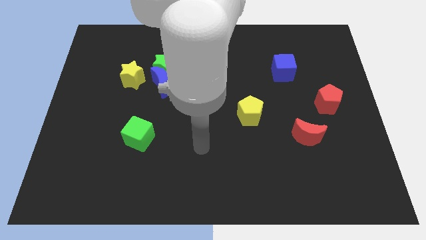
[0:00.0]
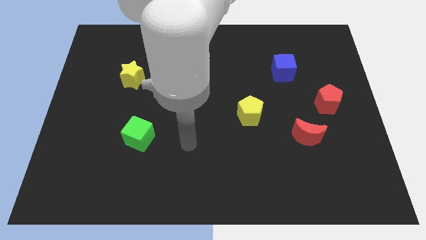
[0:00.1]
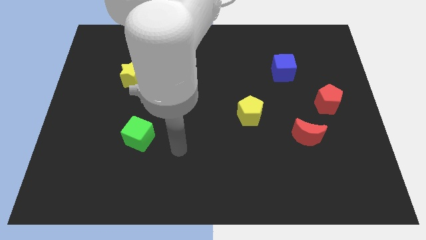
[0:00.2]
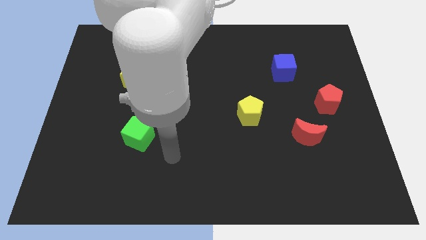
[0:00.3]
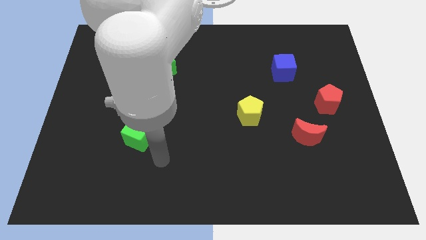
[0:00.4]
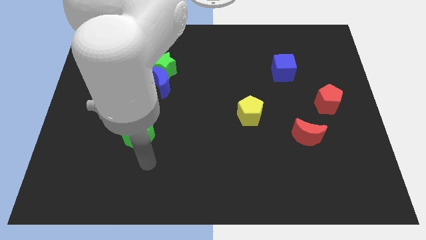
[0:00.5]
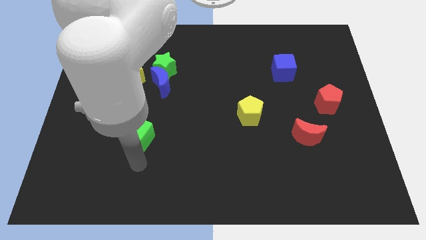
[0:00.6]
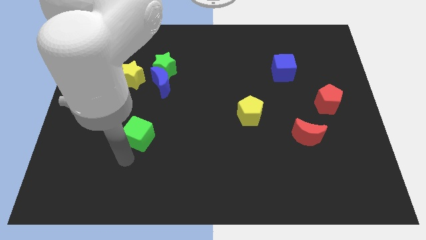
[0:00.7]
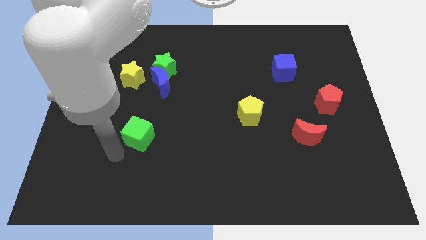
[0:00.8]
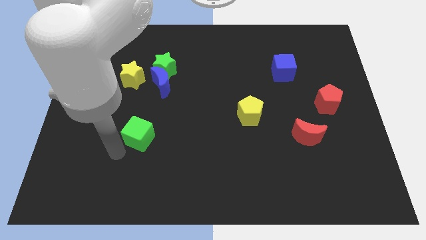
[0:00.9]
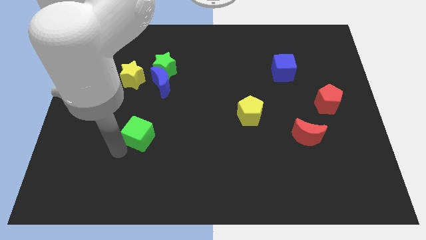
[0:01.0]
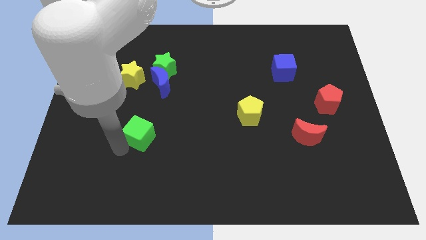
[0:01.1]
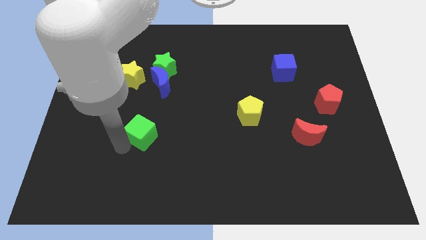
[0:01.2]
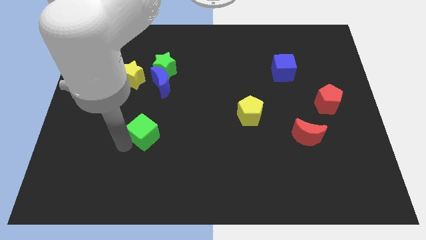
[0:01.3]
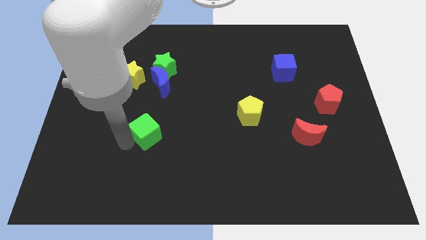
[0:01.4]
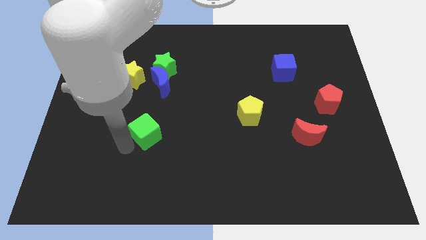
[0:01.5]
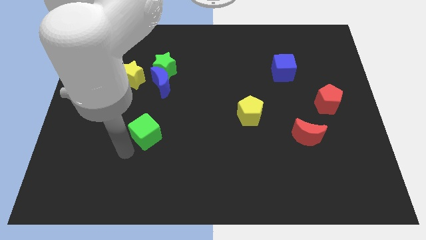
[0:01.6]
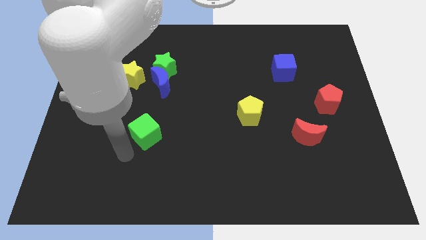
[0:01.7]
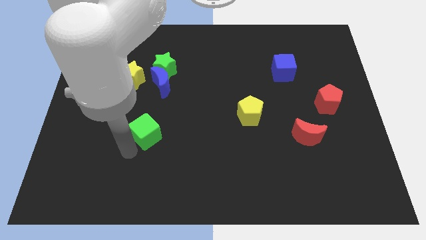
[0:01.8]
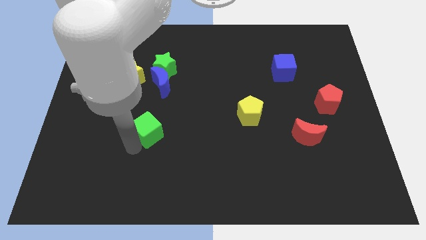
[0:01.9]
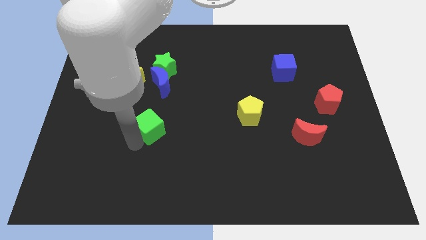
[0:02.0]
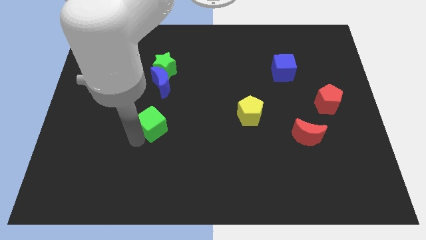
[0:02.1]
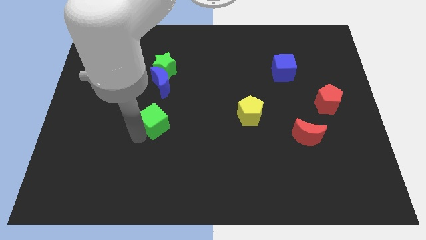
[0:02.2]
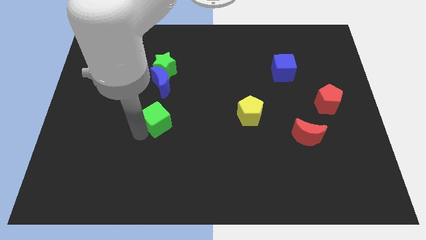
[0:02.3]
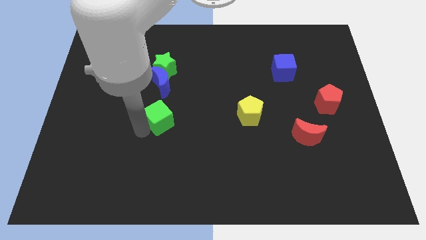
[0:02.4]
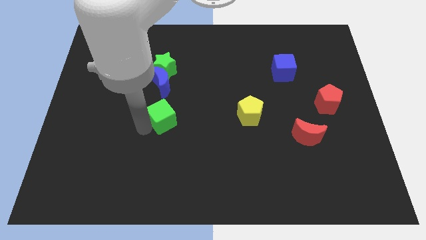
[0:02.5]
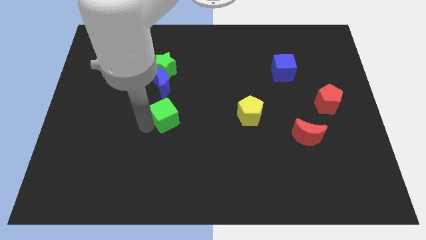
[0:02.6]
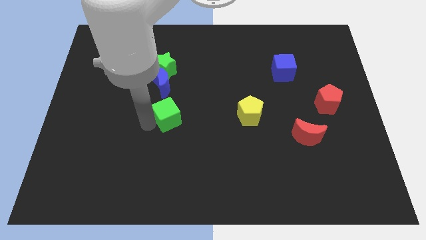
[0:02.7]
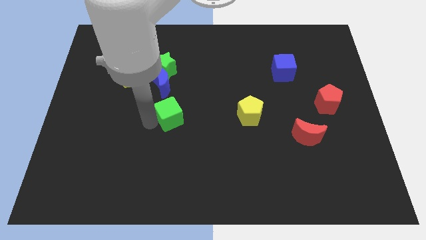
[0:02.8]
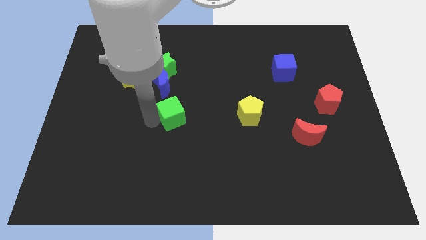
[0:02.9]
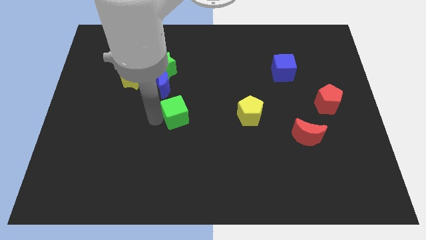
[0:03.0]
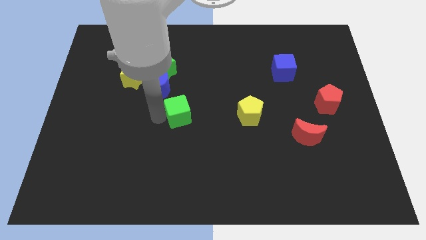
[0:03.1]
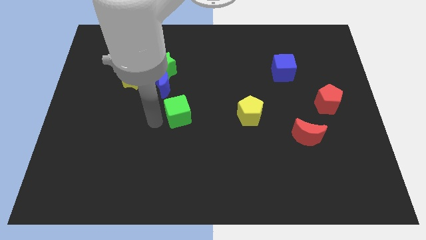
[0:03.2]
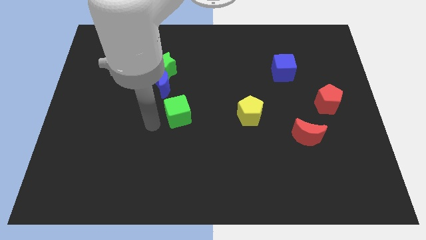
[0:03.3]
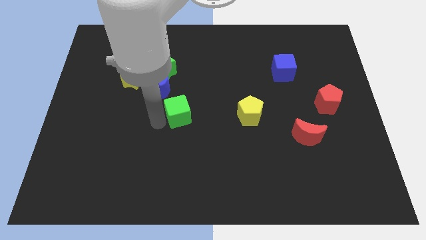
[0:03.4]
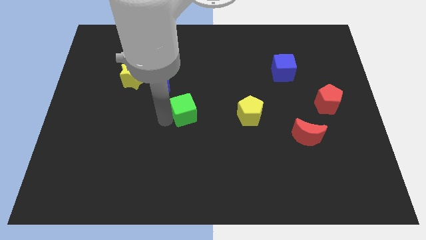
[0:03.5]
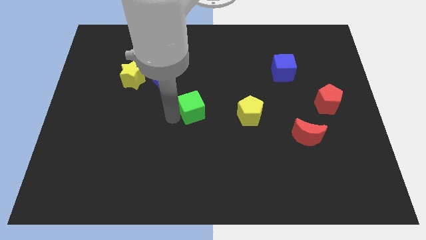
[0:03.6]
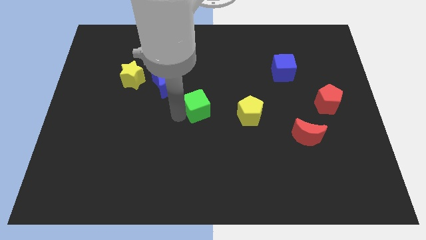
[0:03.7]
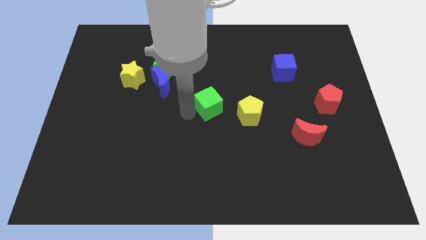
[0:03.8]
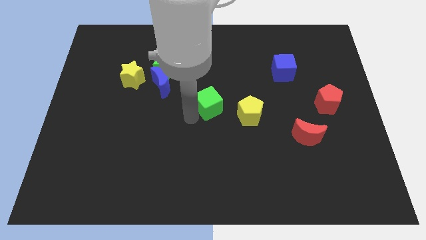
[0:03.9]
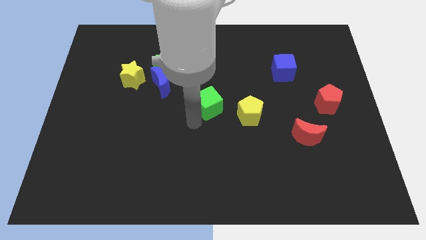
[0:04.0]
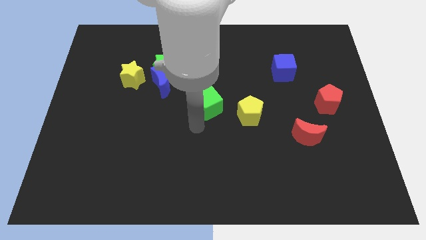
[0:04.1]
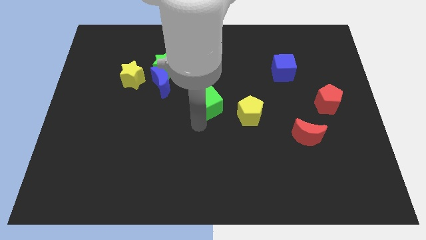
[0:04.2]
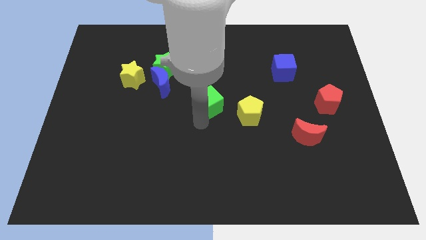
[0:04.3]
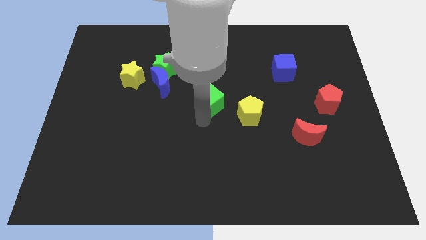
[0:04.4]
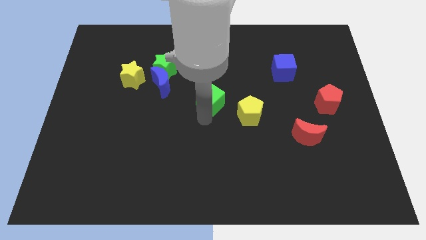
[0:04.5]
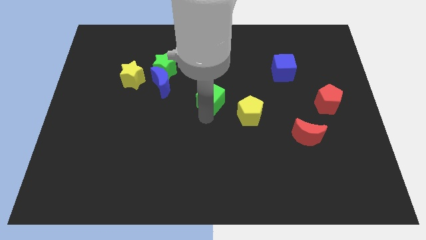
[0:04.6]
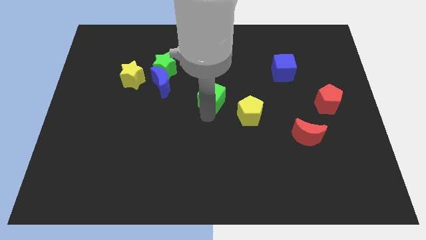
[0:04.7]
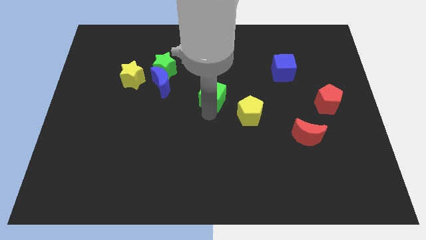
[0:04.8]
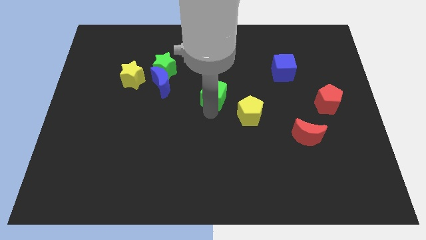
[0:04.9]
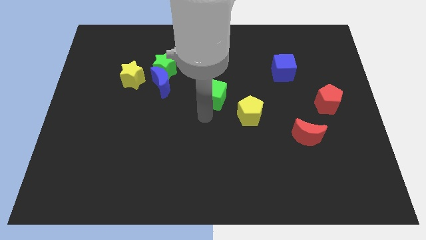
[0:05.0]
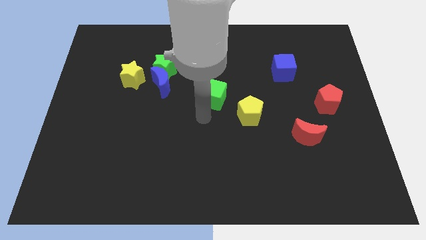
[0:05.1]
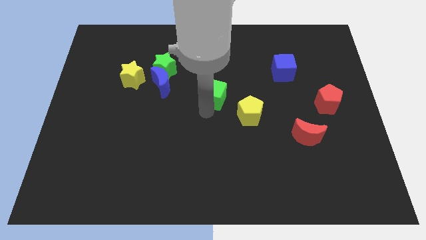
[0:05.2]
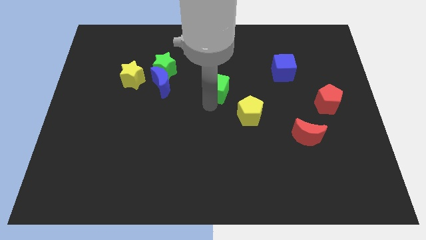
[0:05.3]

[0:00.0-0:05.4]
slide the green cube upwards and to the right

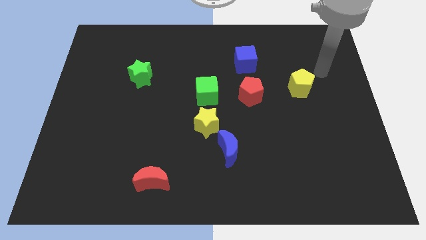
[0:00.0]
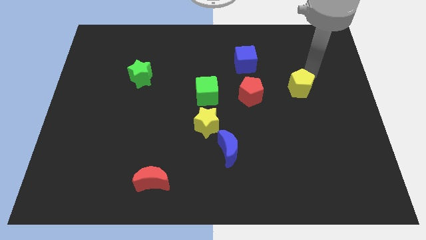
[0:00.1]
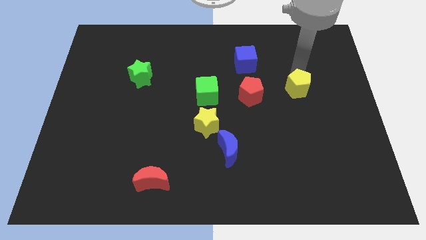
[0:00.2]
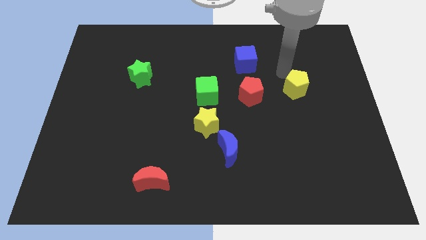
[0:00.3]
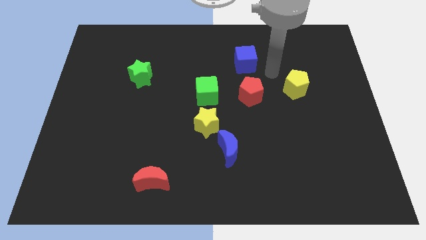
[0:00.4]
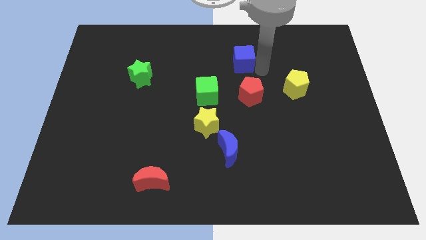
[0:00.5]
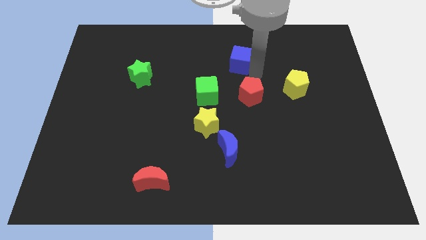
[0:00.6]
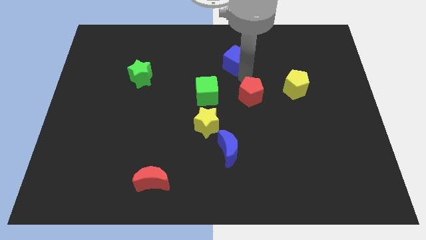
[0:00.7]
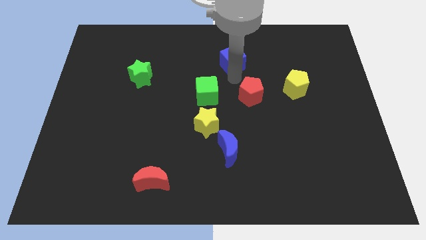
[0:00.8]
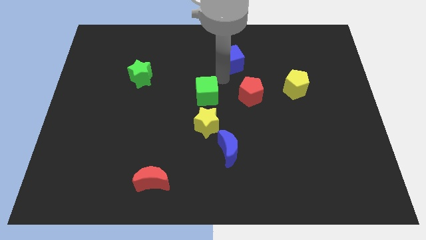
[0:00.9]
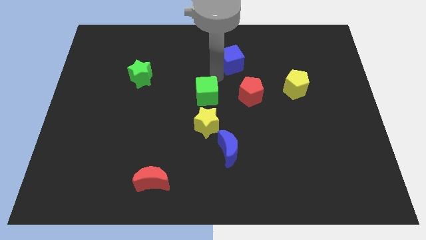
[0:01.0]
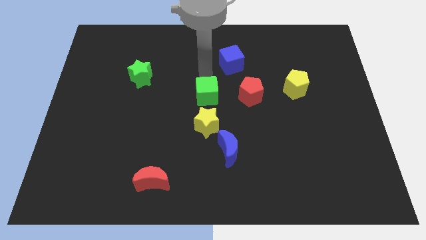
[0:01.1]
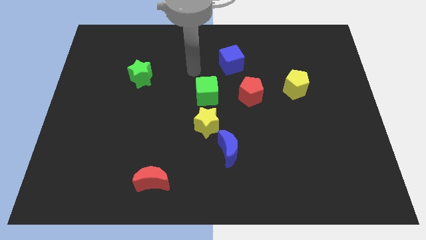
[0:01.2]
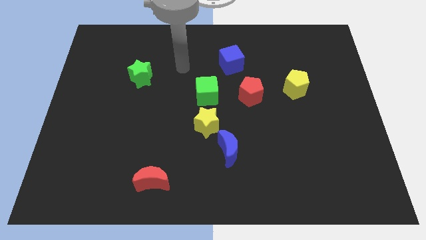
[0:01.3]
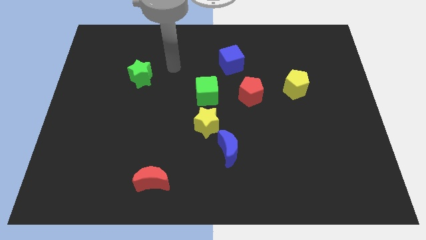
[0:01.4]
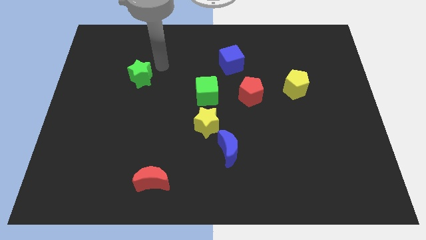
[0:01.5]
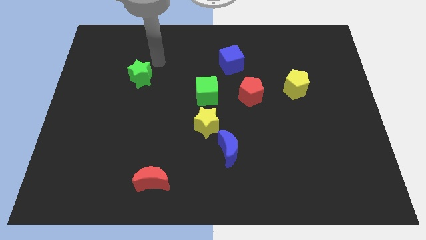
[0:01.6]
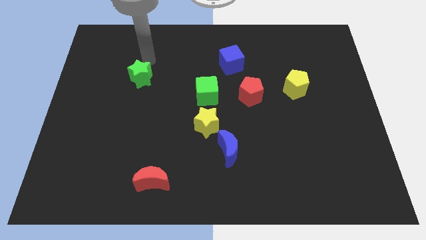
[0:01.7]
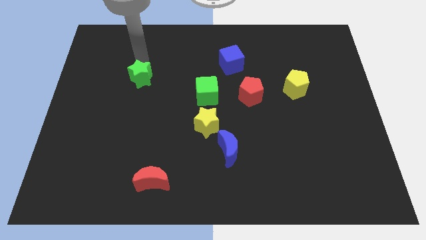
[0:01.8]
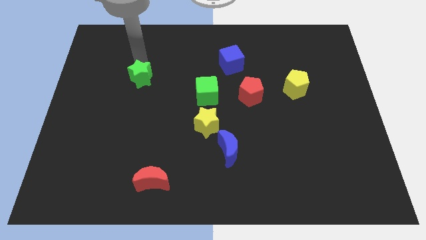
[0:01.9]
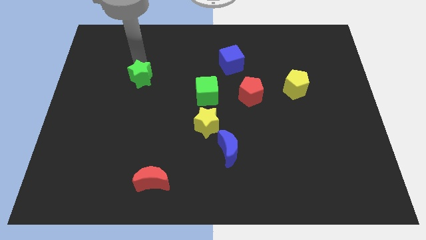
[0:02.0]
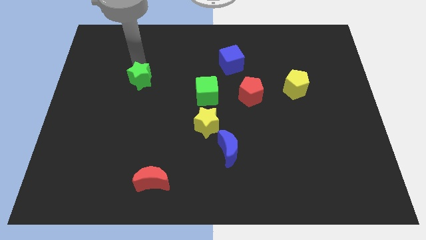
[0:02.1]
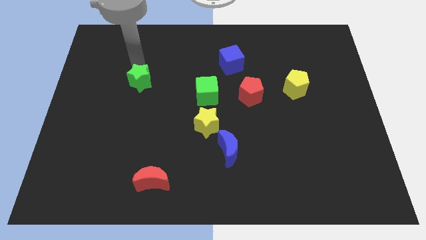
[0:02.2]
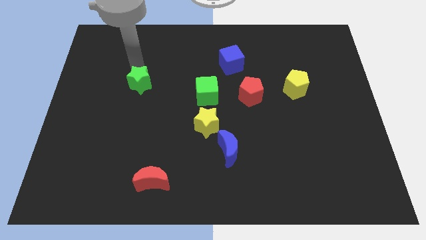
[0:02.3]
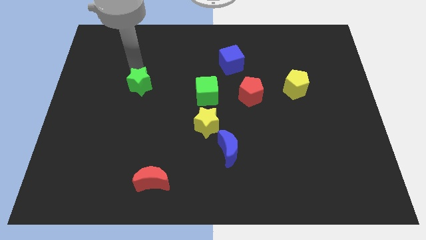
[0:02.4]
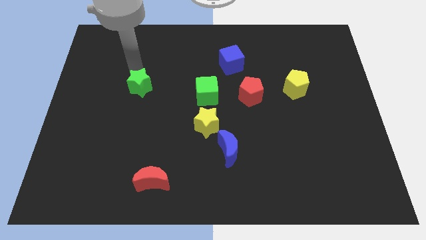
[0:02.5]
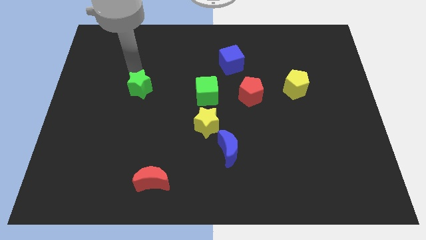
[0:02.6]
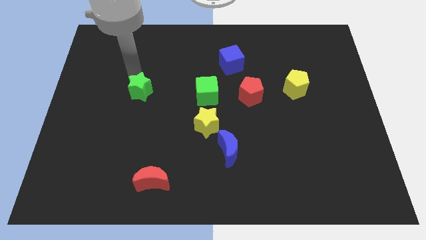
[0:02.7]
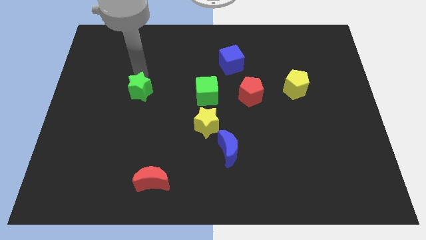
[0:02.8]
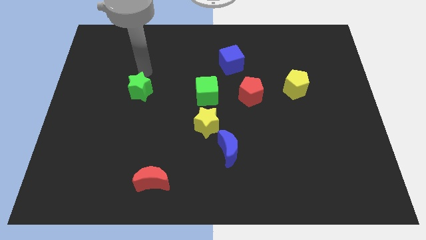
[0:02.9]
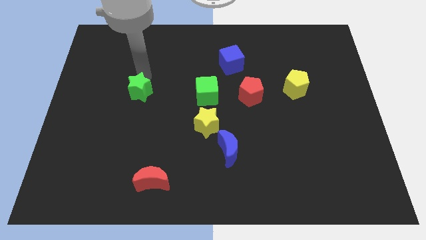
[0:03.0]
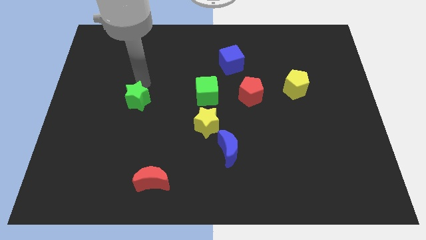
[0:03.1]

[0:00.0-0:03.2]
move the green star downwards somewhat
